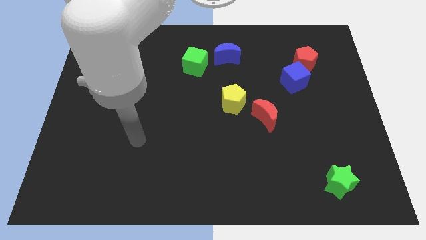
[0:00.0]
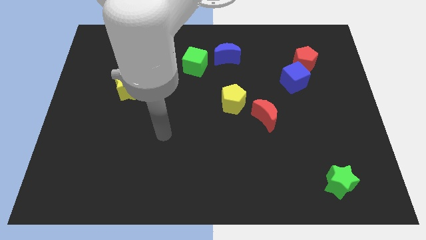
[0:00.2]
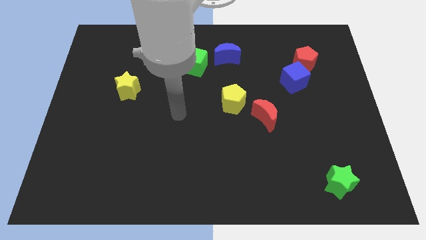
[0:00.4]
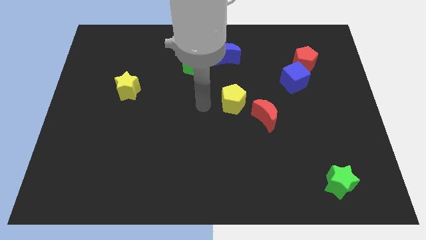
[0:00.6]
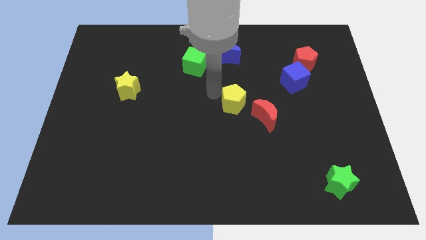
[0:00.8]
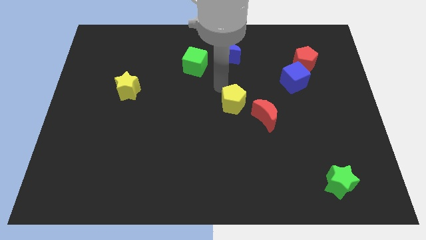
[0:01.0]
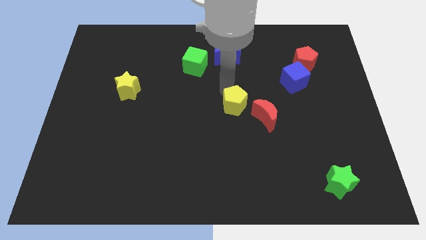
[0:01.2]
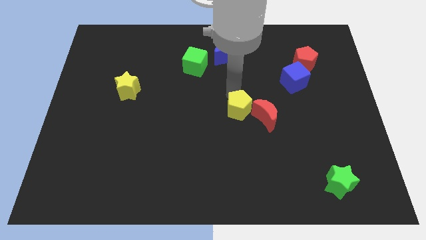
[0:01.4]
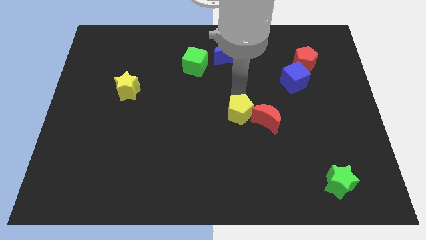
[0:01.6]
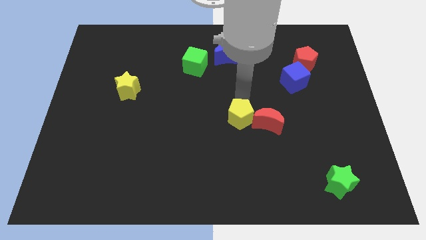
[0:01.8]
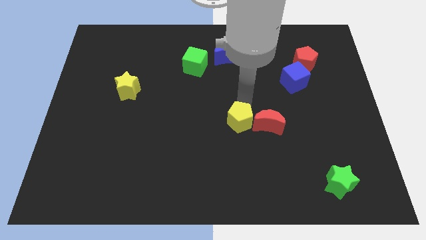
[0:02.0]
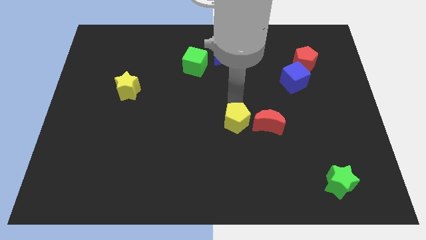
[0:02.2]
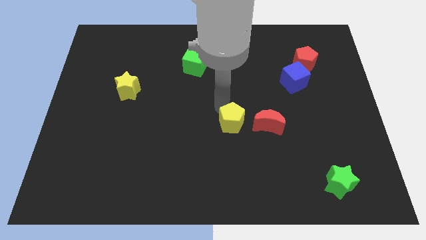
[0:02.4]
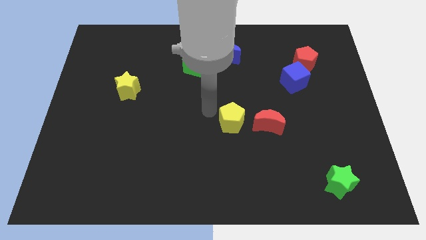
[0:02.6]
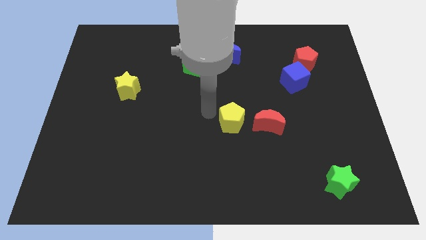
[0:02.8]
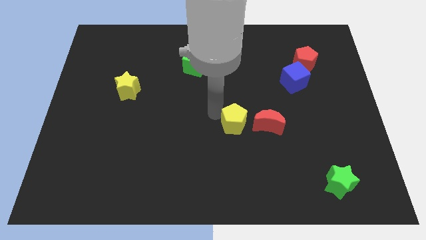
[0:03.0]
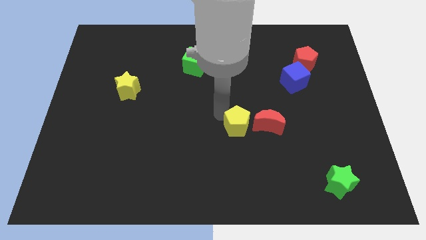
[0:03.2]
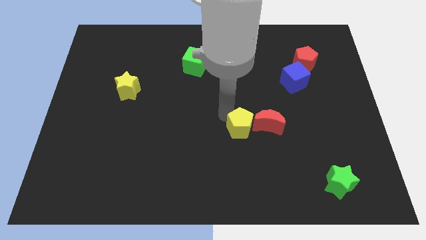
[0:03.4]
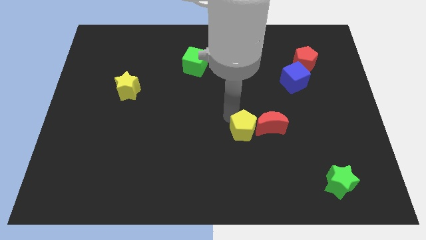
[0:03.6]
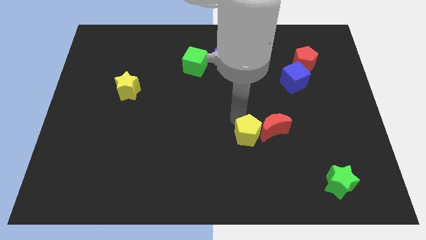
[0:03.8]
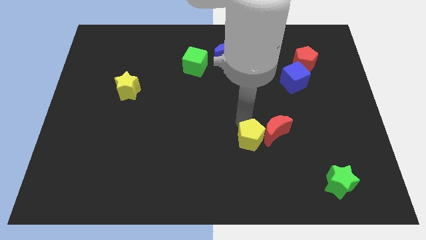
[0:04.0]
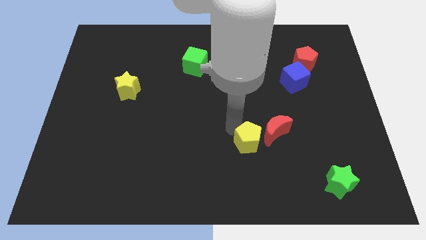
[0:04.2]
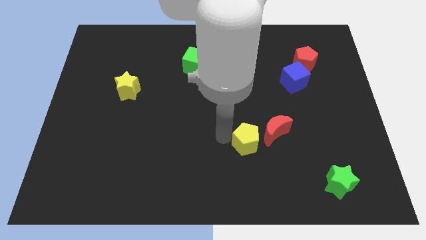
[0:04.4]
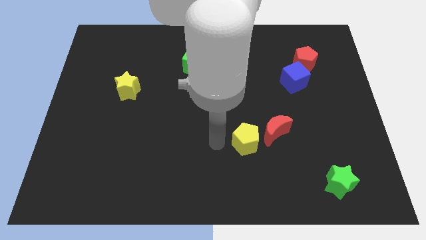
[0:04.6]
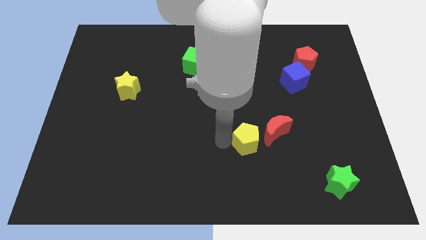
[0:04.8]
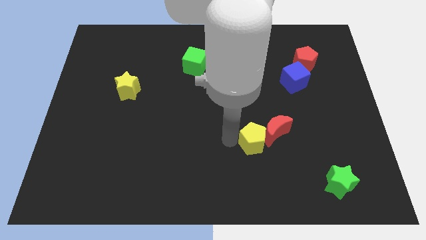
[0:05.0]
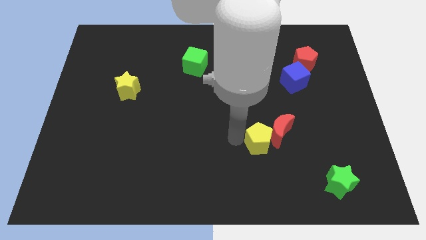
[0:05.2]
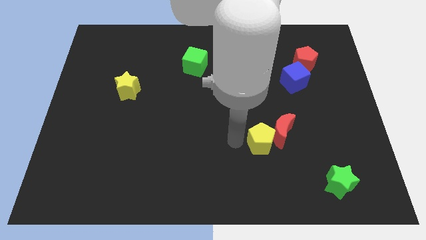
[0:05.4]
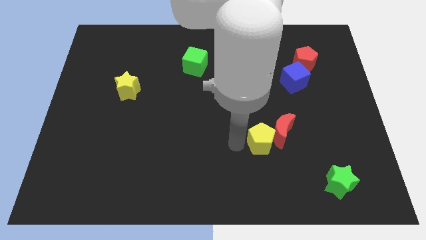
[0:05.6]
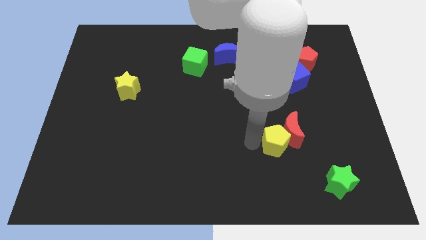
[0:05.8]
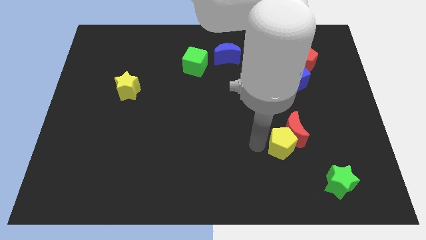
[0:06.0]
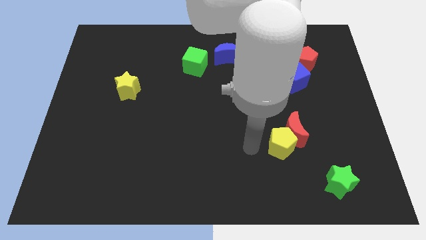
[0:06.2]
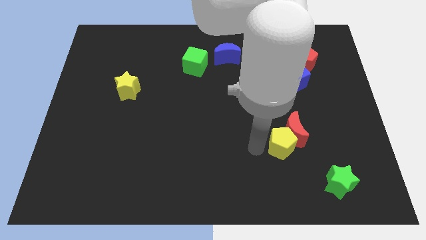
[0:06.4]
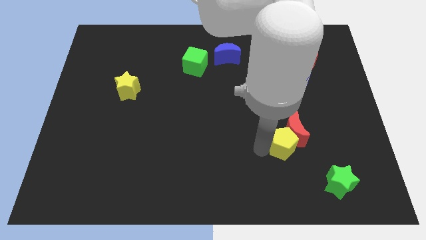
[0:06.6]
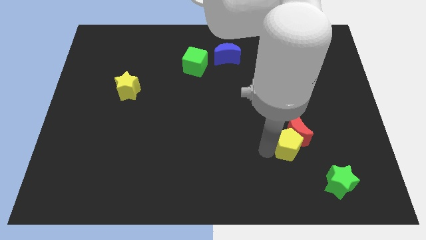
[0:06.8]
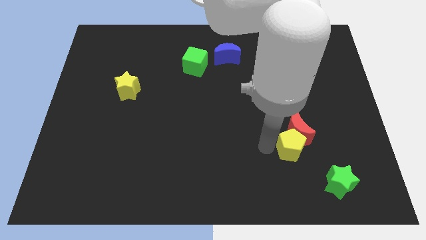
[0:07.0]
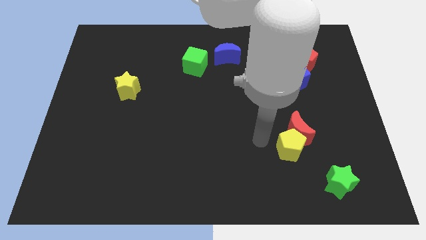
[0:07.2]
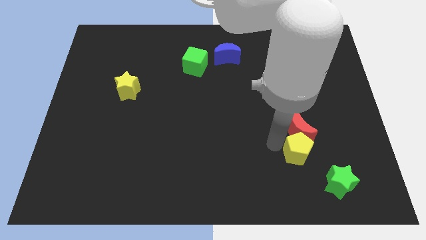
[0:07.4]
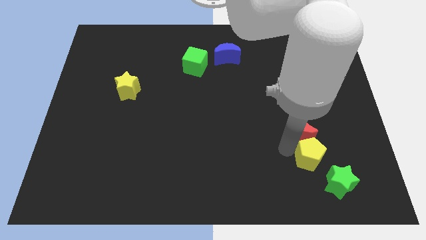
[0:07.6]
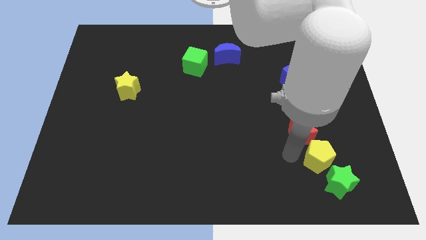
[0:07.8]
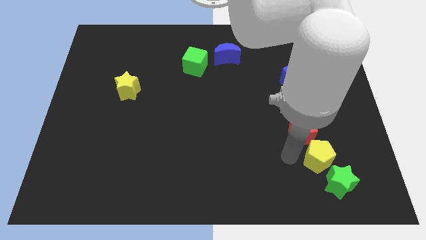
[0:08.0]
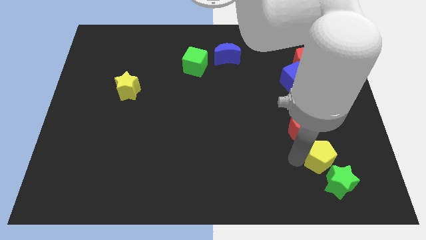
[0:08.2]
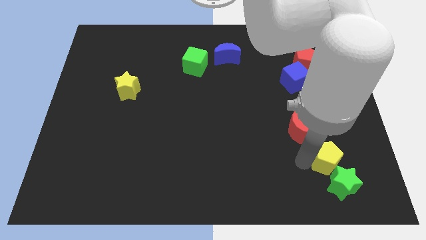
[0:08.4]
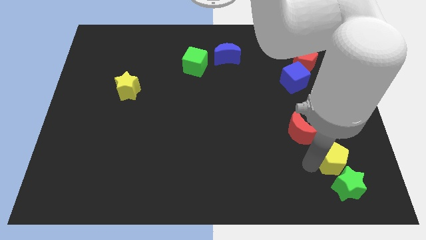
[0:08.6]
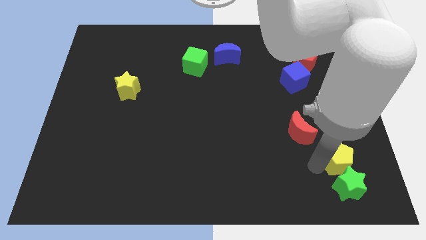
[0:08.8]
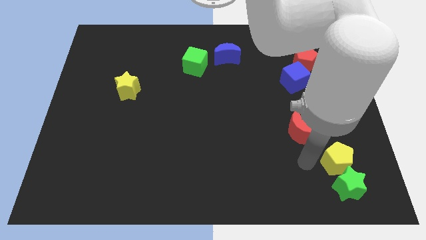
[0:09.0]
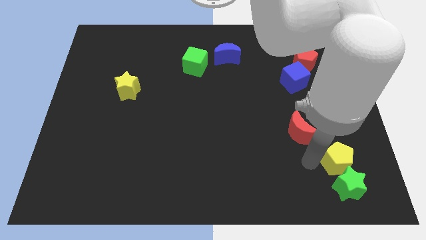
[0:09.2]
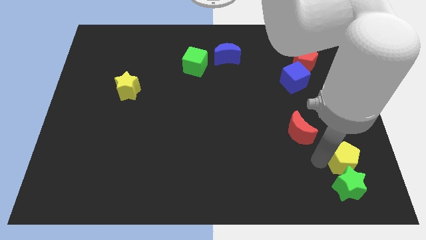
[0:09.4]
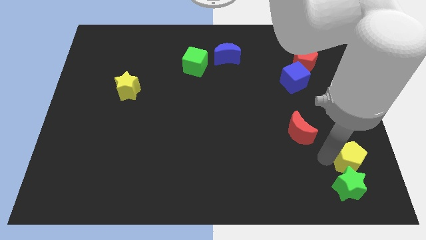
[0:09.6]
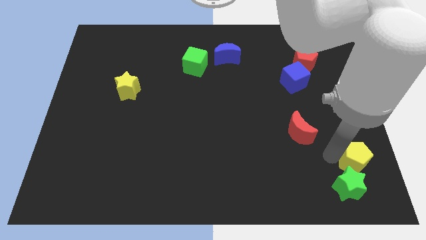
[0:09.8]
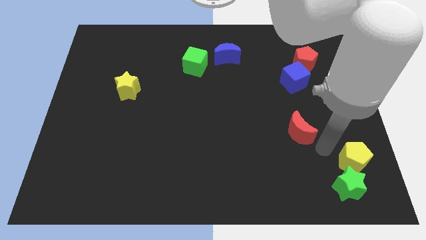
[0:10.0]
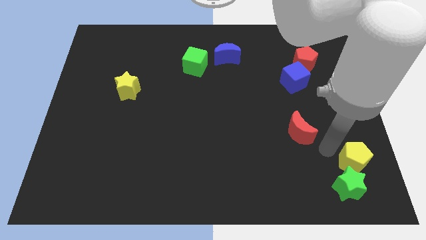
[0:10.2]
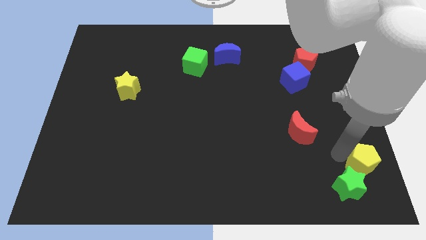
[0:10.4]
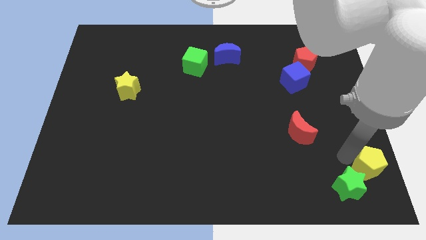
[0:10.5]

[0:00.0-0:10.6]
move the yellow pentagon to the lower right corner

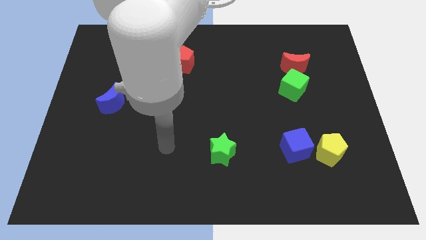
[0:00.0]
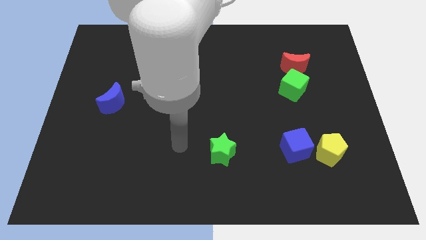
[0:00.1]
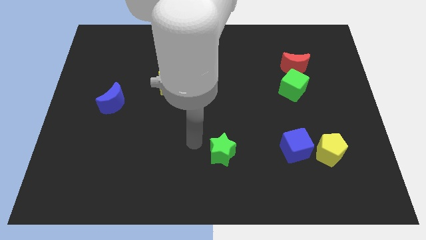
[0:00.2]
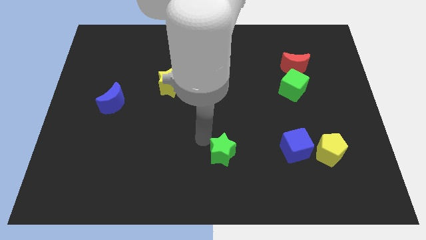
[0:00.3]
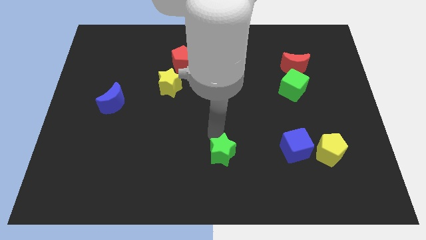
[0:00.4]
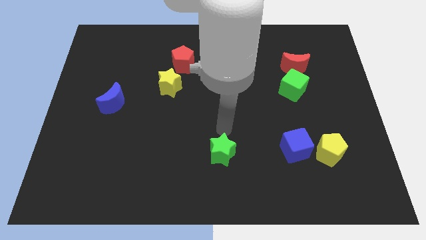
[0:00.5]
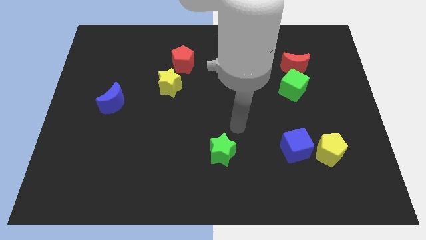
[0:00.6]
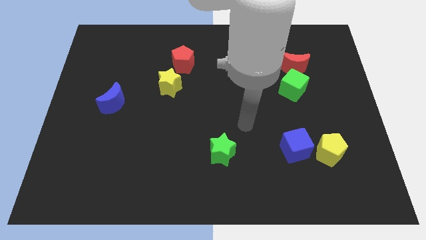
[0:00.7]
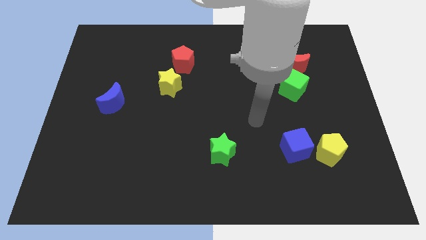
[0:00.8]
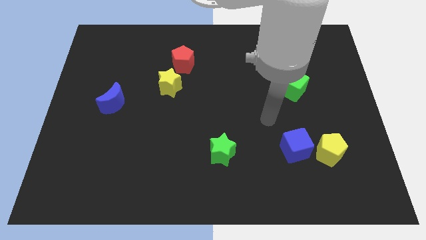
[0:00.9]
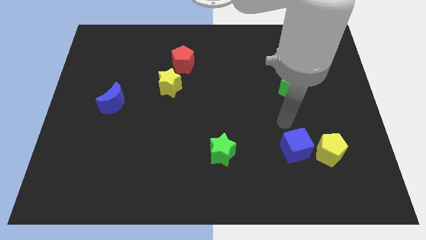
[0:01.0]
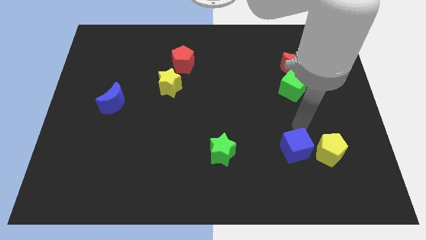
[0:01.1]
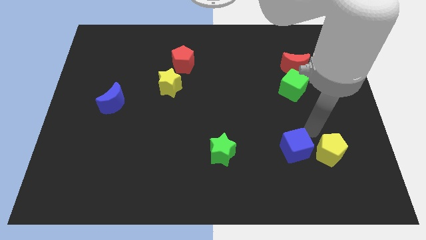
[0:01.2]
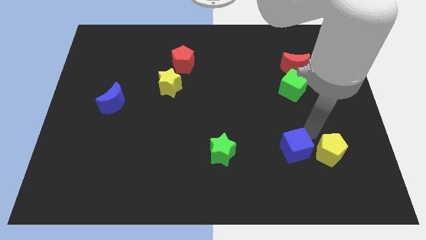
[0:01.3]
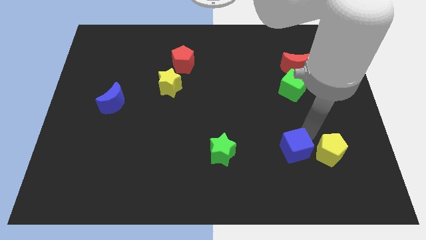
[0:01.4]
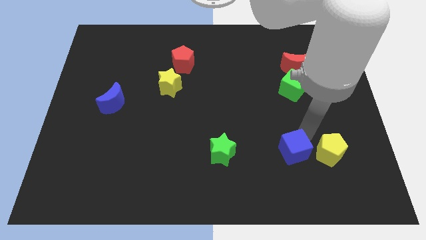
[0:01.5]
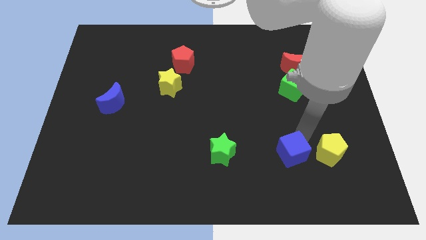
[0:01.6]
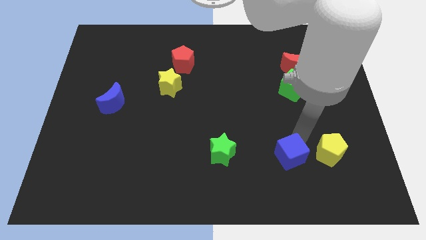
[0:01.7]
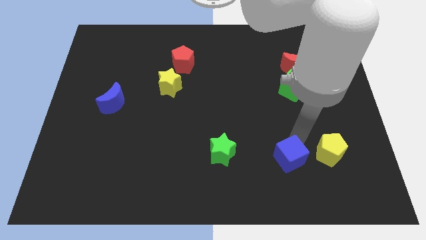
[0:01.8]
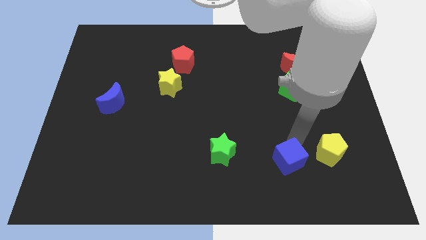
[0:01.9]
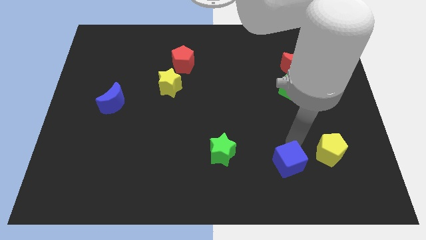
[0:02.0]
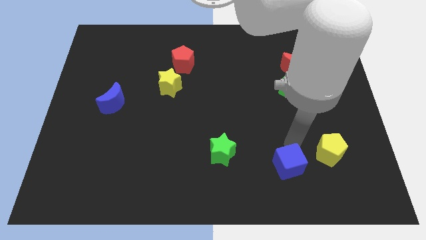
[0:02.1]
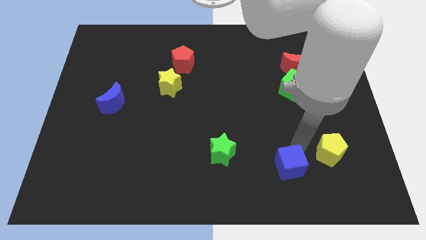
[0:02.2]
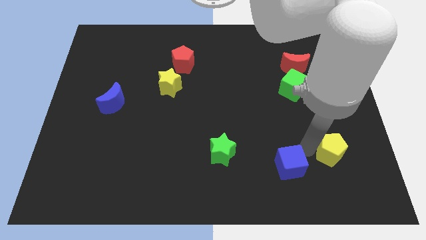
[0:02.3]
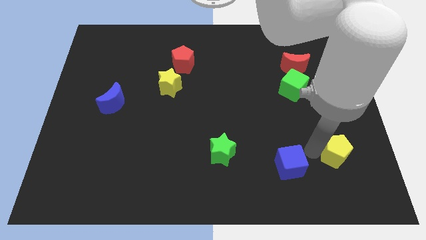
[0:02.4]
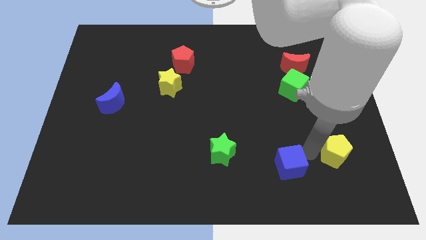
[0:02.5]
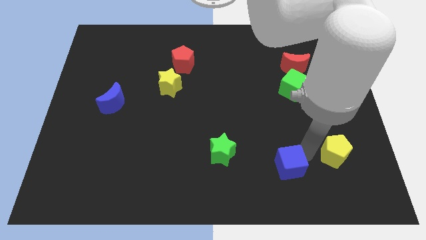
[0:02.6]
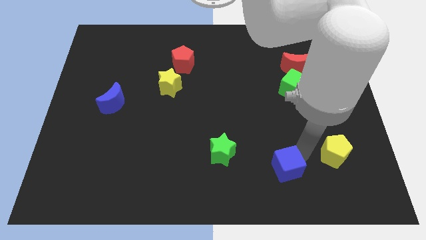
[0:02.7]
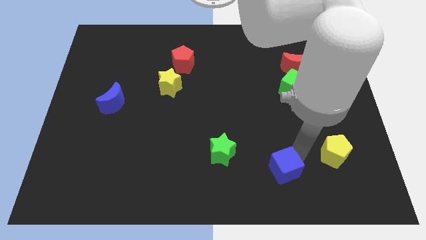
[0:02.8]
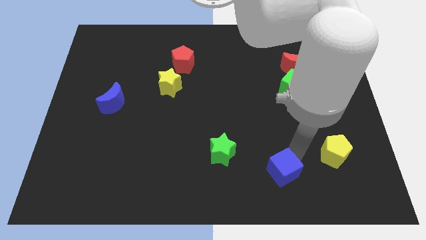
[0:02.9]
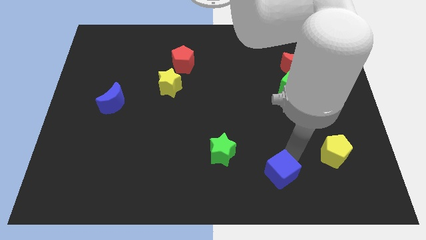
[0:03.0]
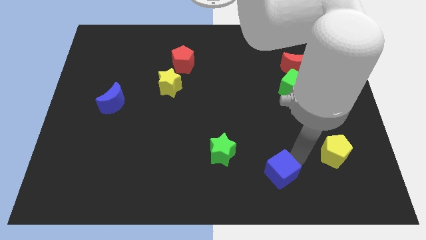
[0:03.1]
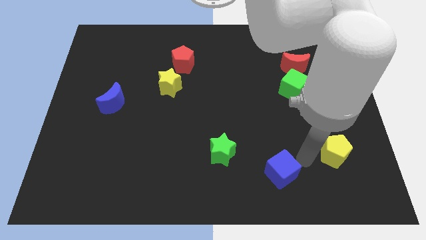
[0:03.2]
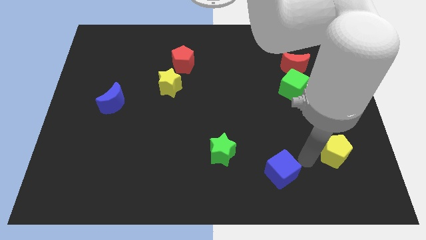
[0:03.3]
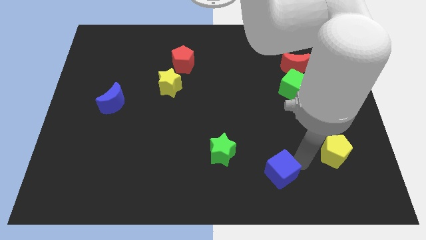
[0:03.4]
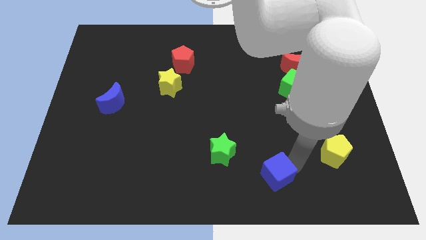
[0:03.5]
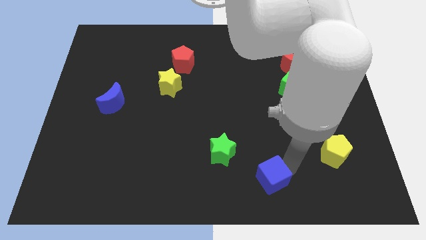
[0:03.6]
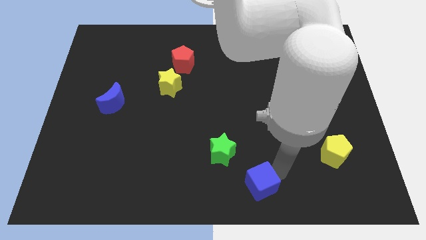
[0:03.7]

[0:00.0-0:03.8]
put the blue cube to the bottom side
